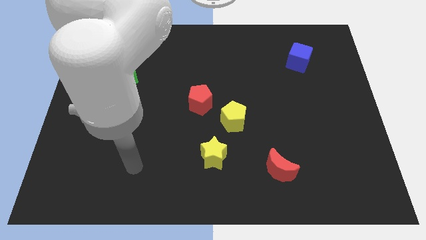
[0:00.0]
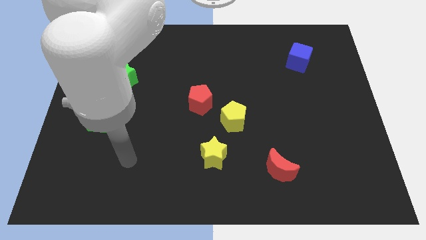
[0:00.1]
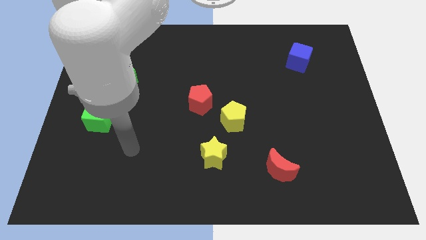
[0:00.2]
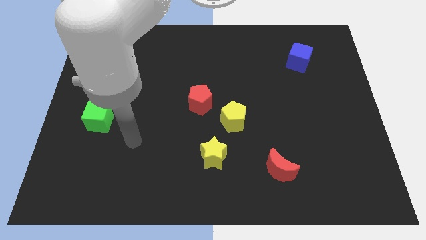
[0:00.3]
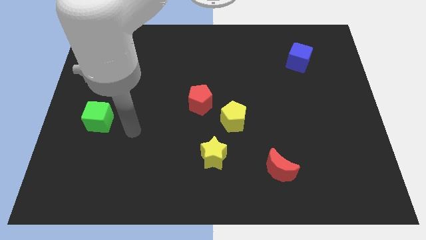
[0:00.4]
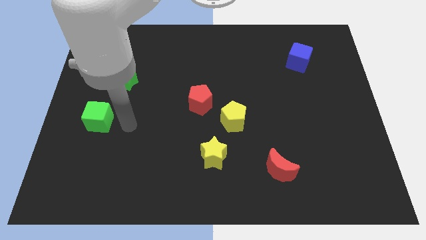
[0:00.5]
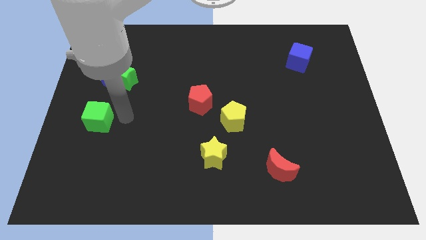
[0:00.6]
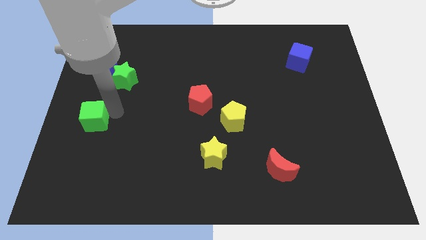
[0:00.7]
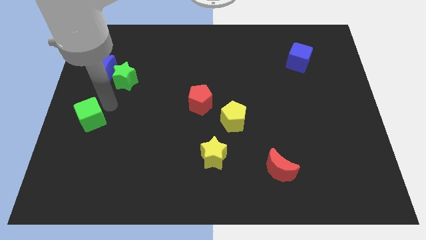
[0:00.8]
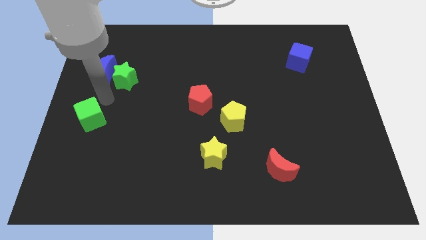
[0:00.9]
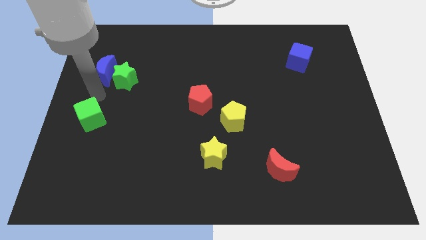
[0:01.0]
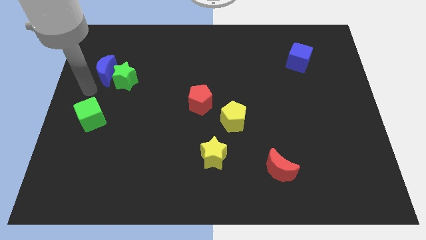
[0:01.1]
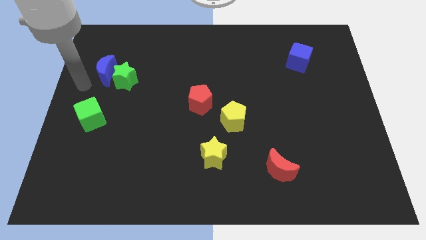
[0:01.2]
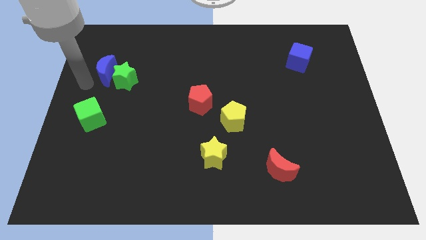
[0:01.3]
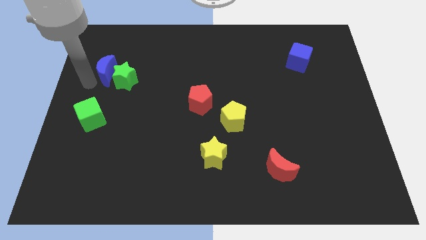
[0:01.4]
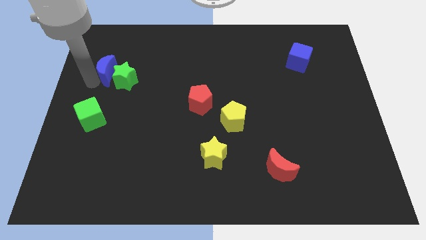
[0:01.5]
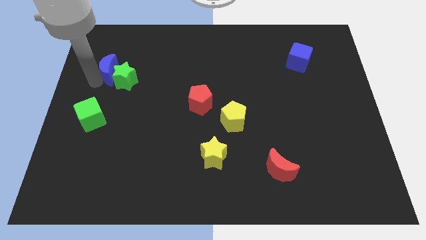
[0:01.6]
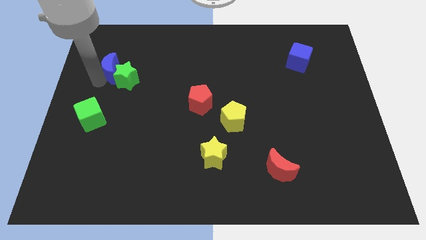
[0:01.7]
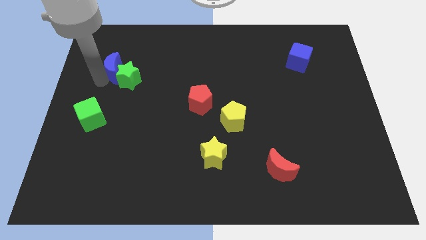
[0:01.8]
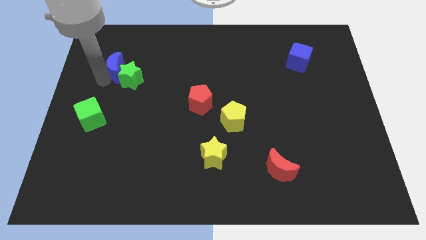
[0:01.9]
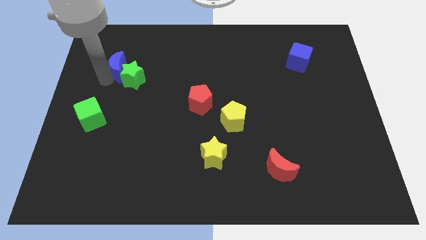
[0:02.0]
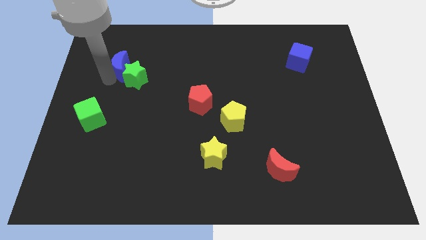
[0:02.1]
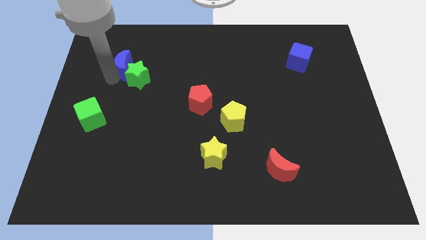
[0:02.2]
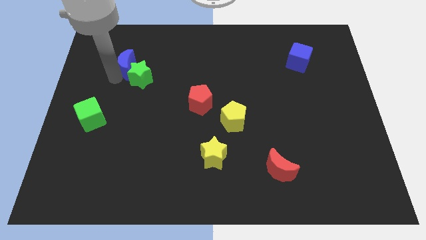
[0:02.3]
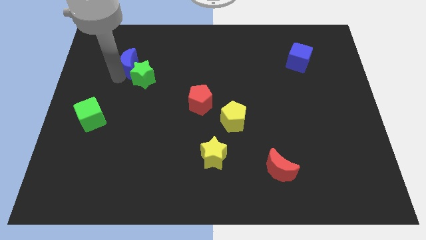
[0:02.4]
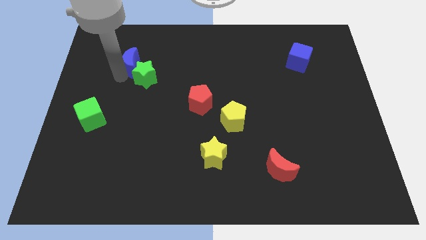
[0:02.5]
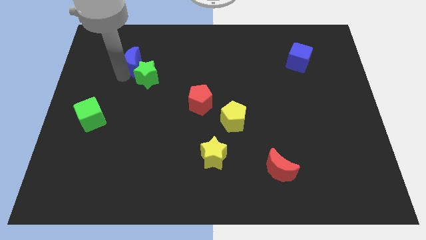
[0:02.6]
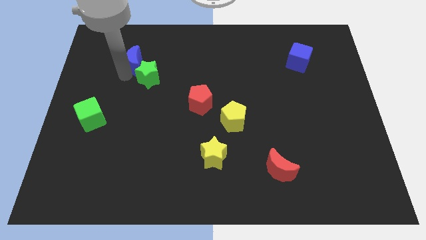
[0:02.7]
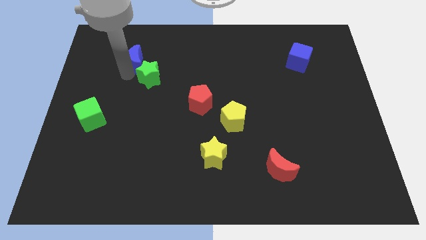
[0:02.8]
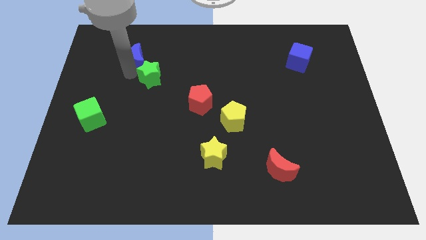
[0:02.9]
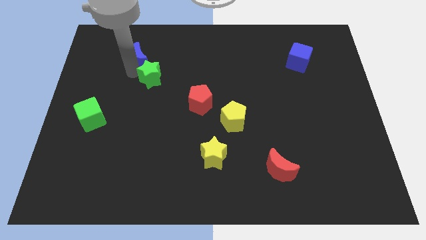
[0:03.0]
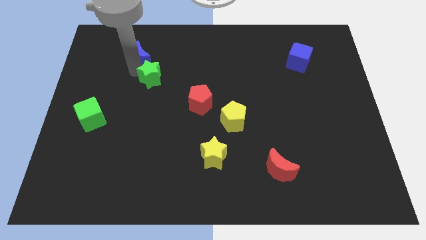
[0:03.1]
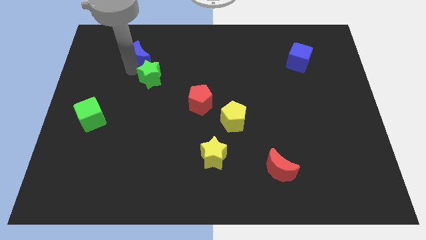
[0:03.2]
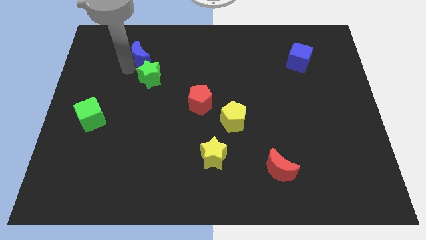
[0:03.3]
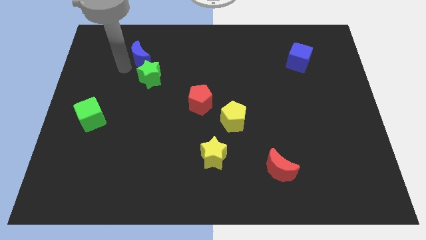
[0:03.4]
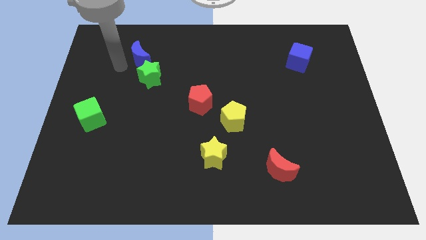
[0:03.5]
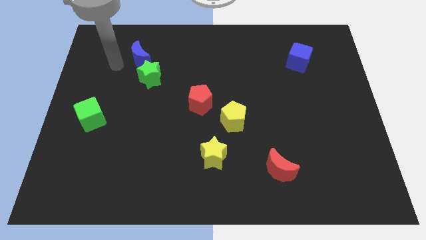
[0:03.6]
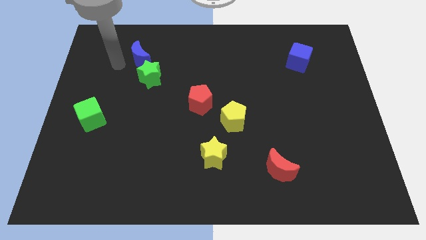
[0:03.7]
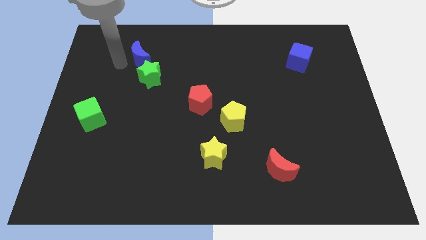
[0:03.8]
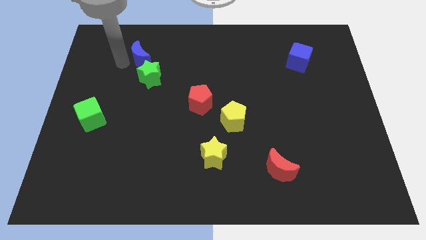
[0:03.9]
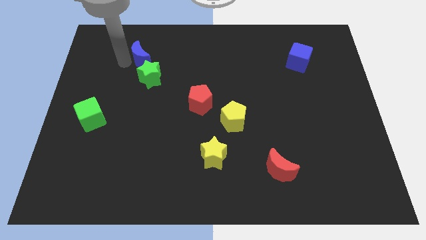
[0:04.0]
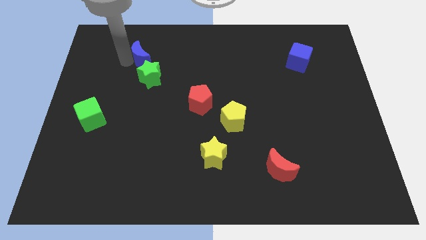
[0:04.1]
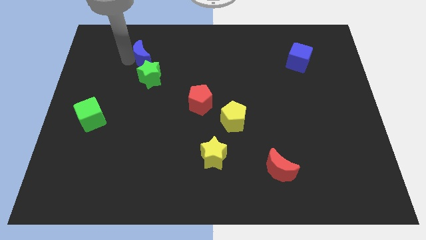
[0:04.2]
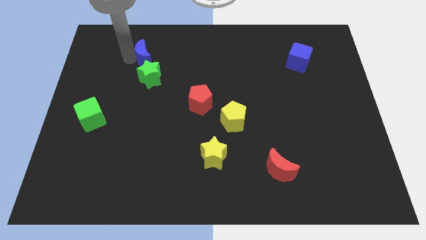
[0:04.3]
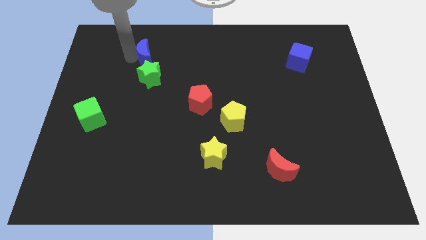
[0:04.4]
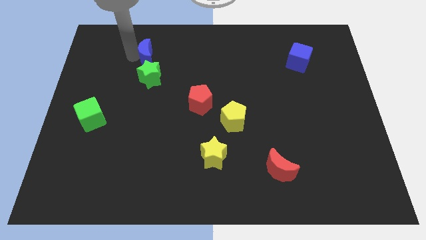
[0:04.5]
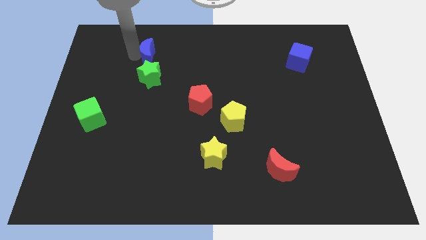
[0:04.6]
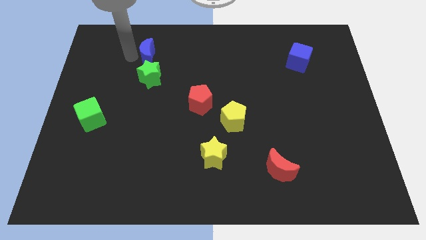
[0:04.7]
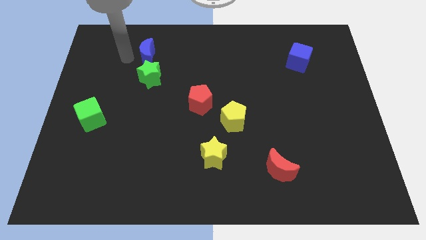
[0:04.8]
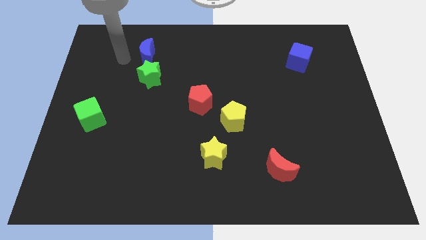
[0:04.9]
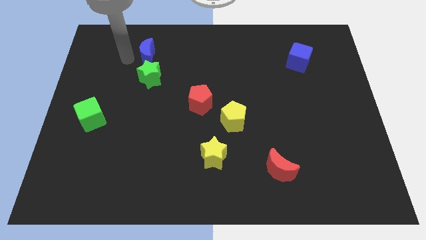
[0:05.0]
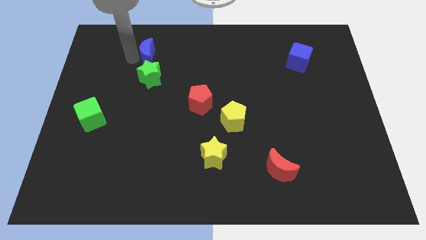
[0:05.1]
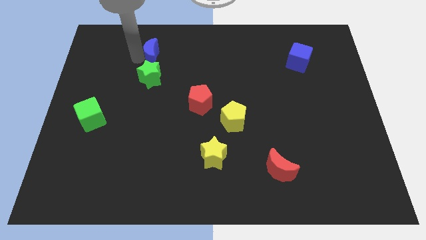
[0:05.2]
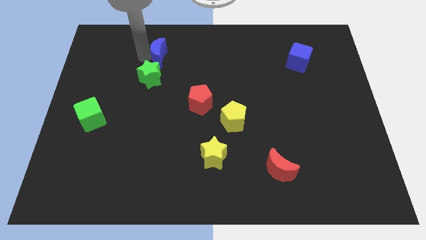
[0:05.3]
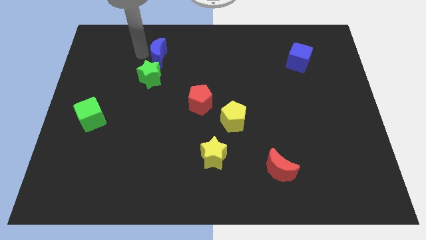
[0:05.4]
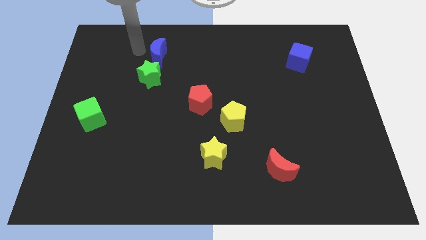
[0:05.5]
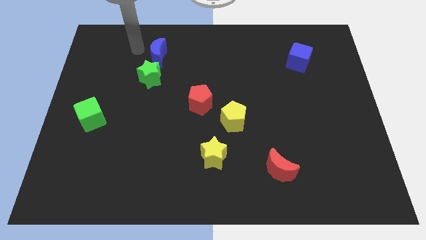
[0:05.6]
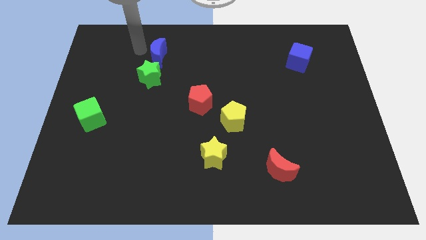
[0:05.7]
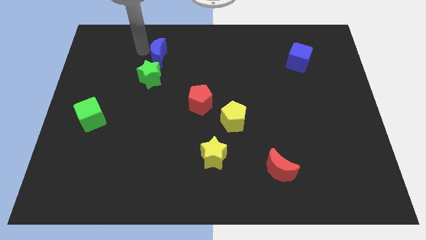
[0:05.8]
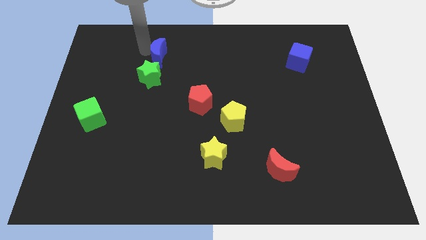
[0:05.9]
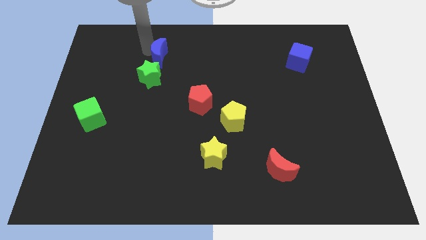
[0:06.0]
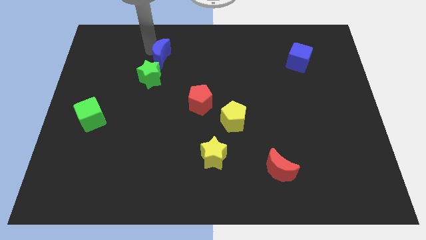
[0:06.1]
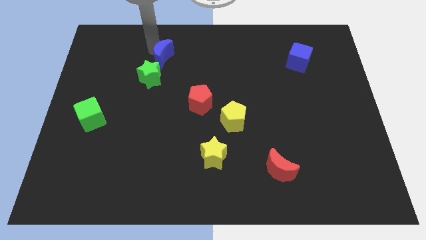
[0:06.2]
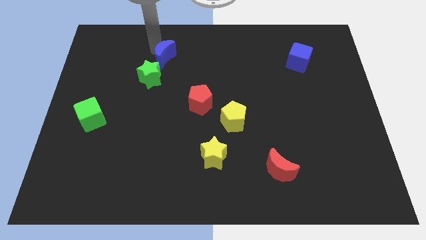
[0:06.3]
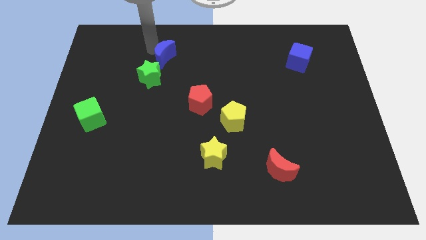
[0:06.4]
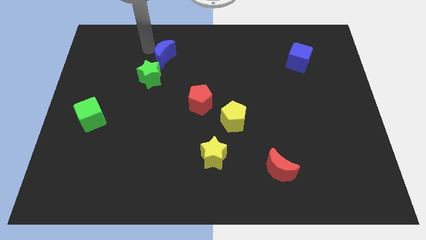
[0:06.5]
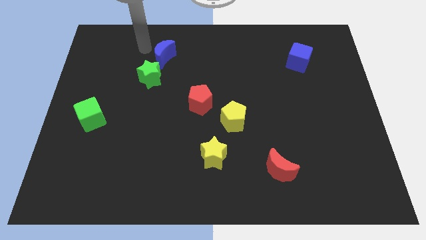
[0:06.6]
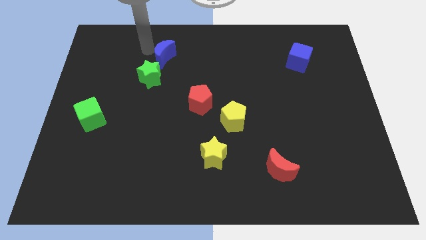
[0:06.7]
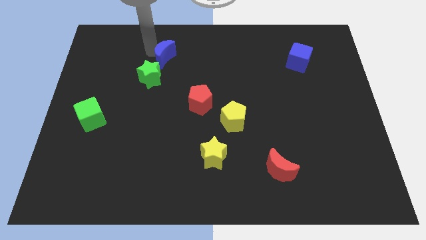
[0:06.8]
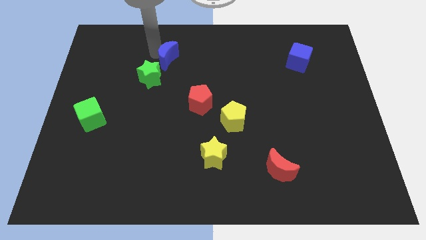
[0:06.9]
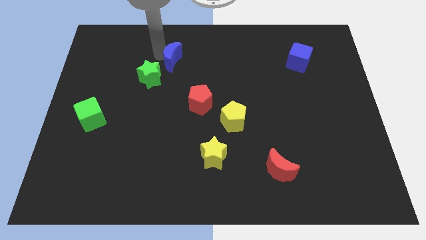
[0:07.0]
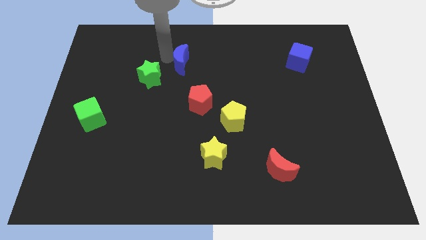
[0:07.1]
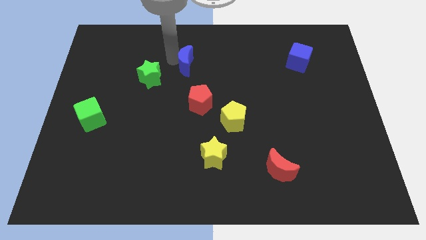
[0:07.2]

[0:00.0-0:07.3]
slide the blue moon to the top of the red pentagon
